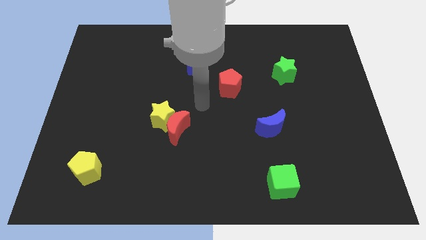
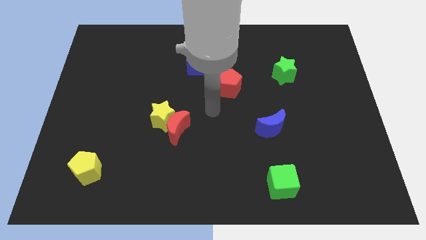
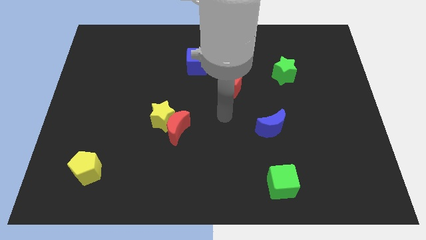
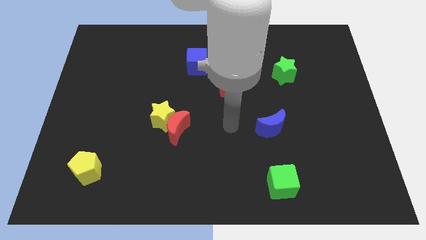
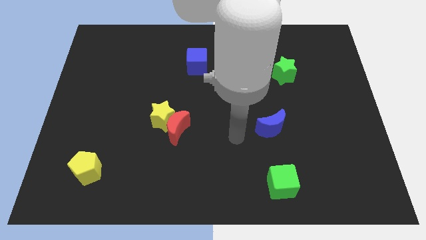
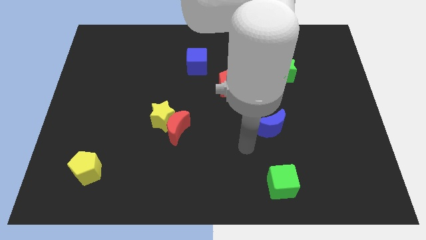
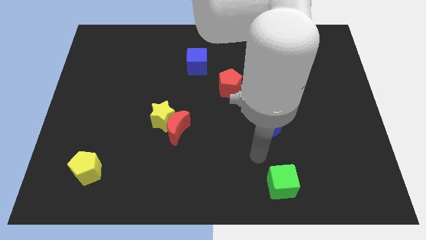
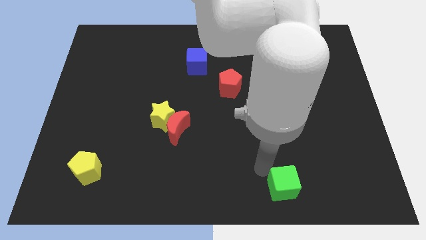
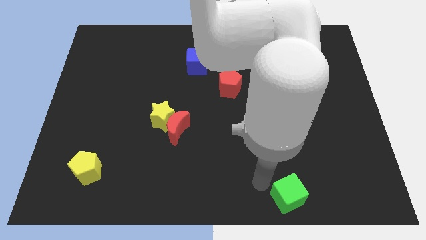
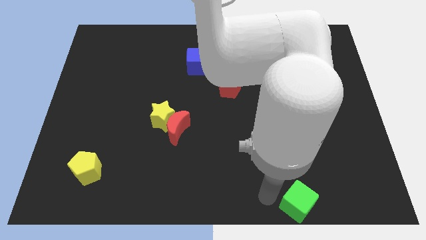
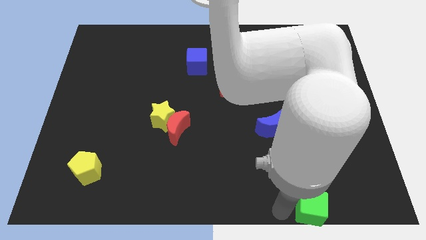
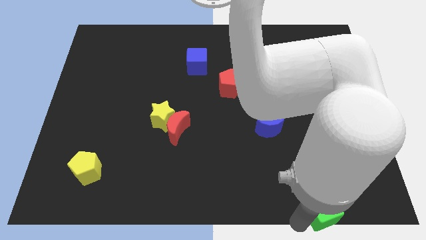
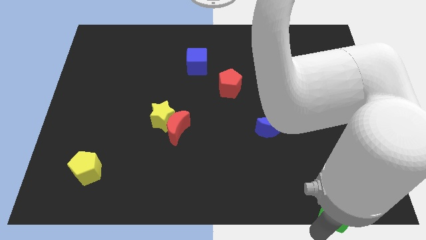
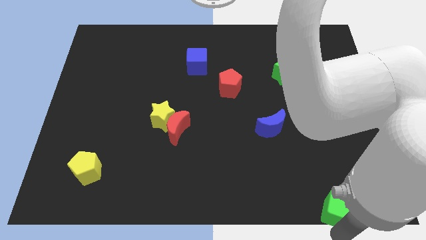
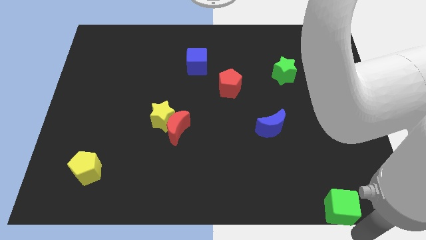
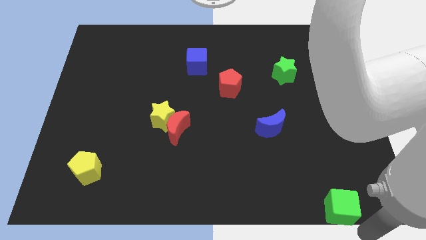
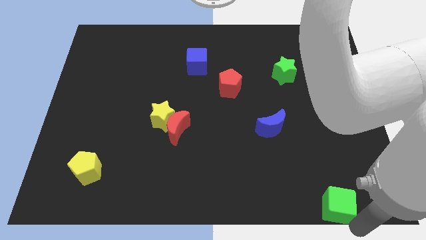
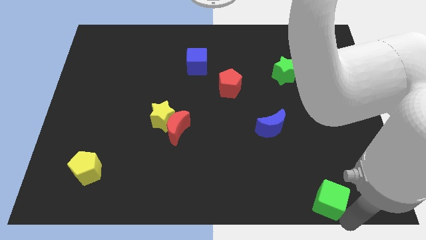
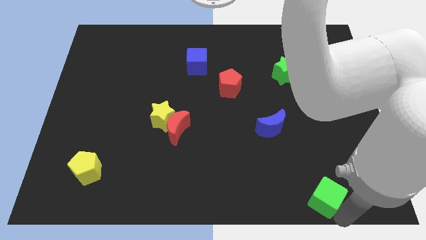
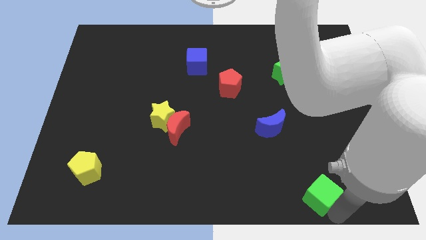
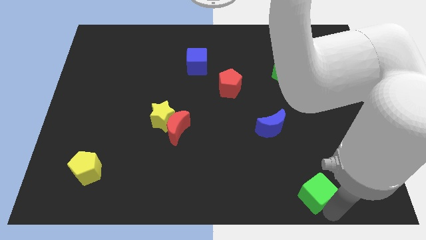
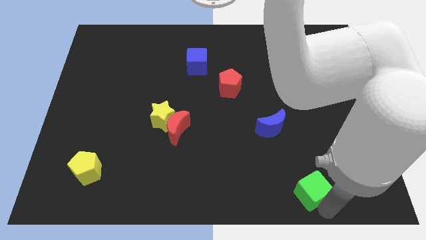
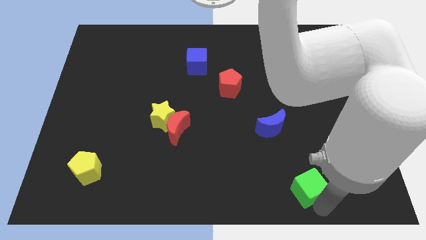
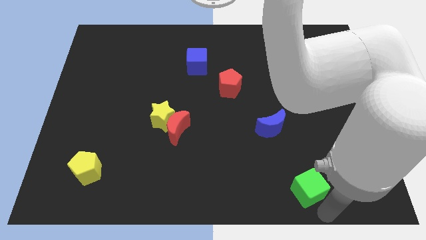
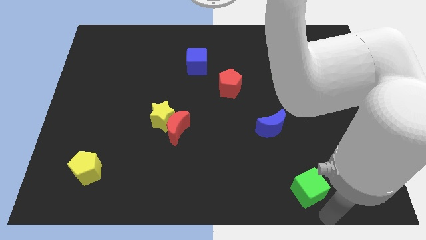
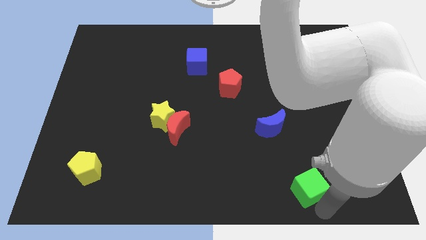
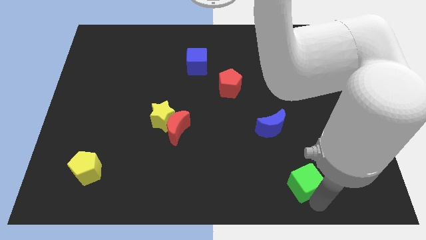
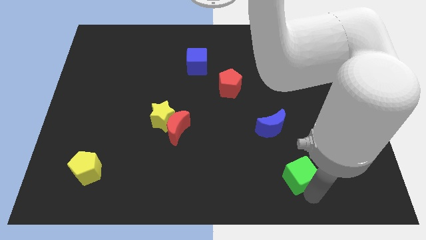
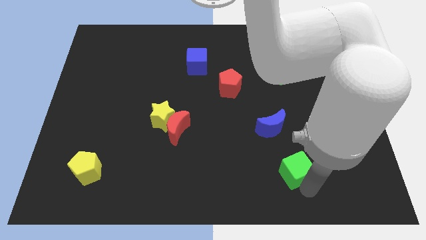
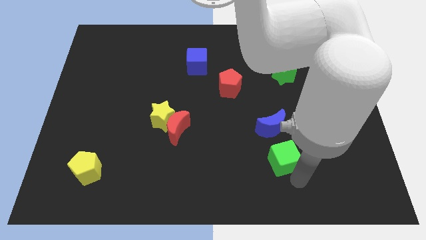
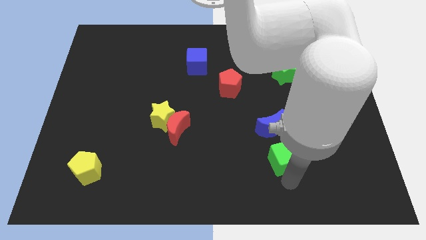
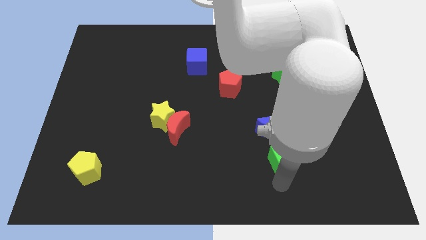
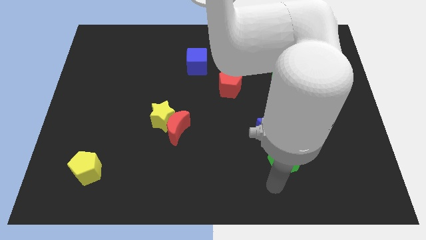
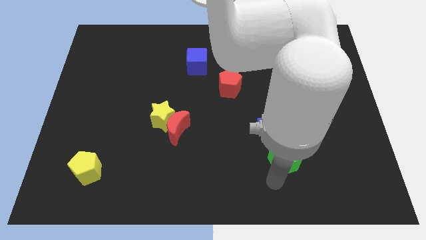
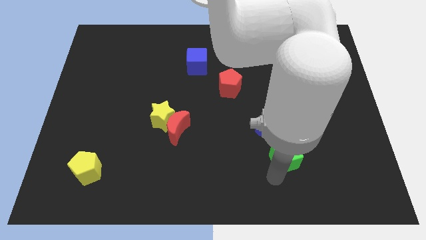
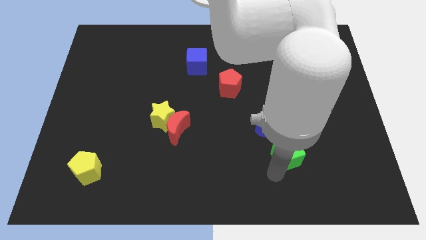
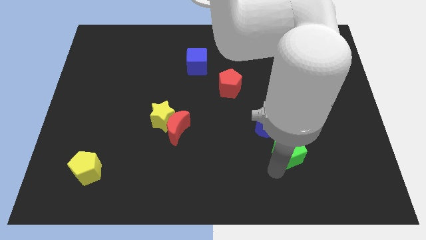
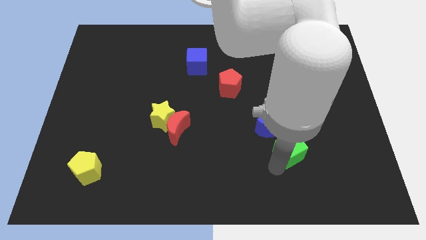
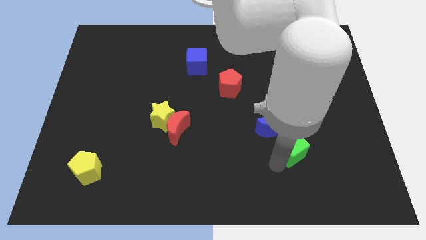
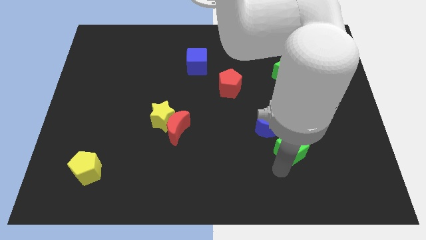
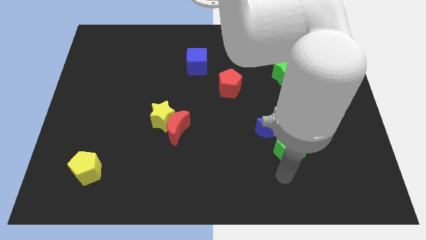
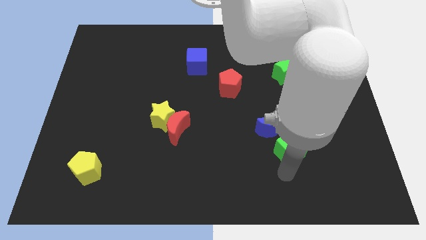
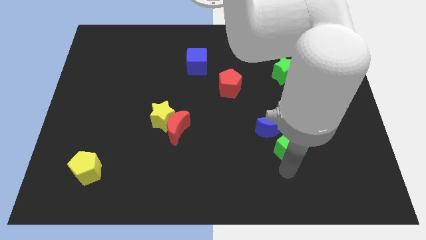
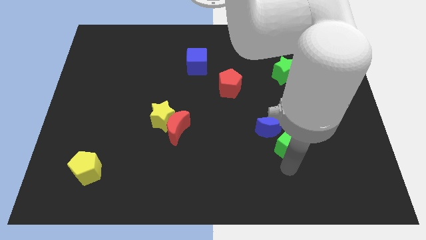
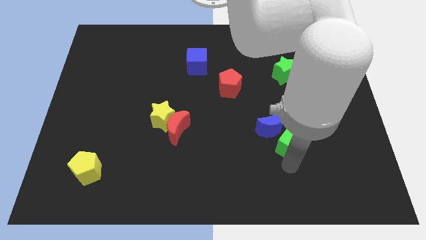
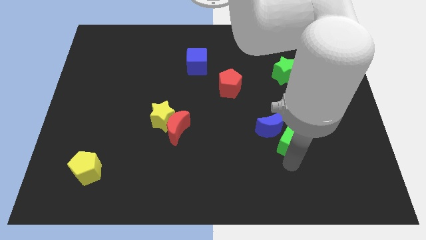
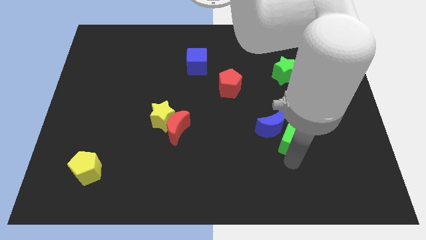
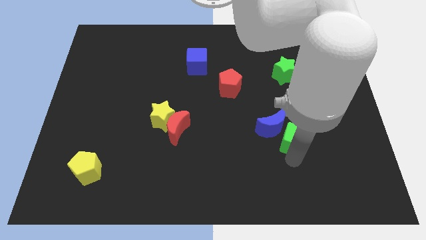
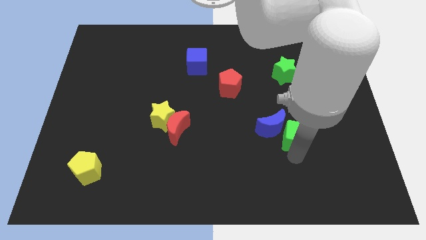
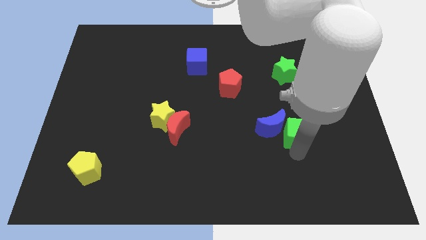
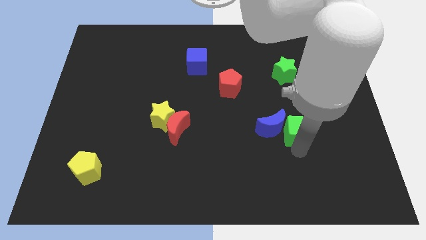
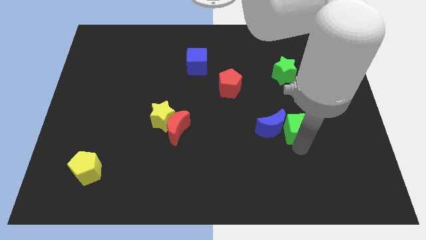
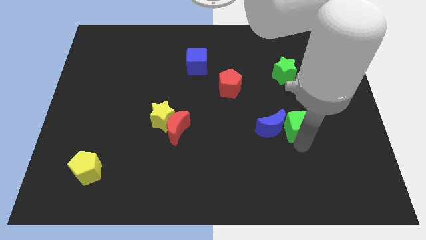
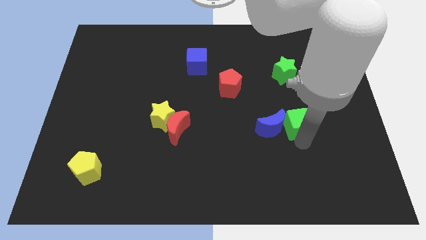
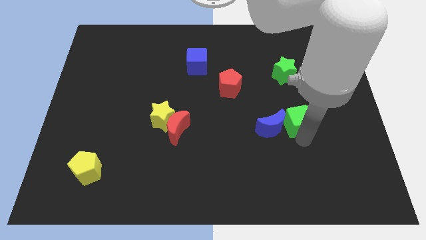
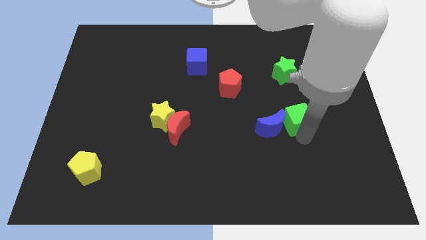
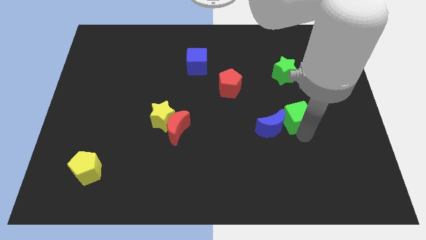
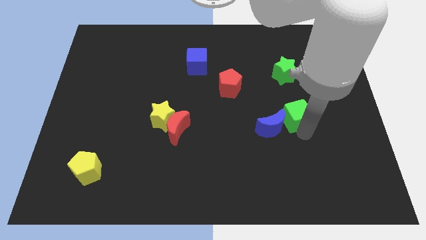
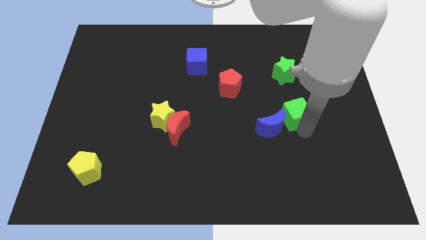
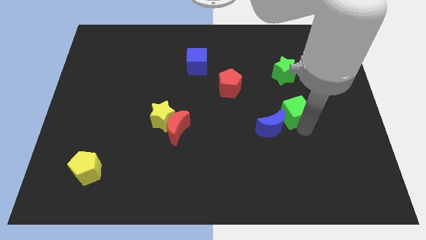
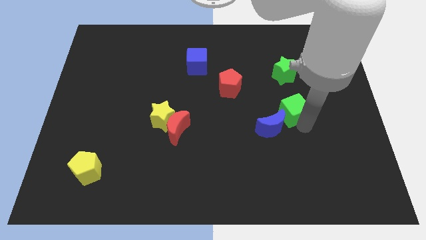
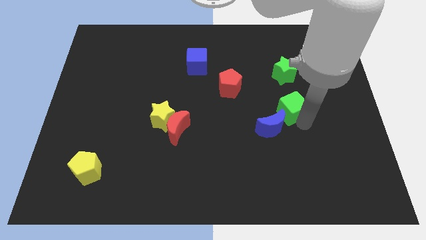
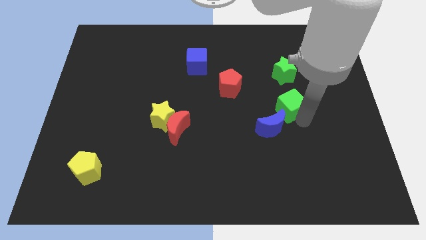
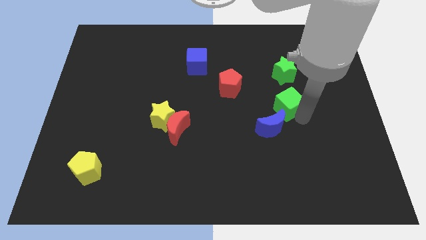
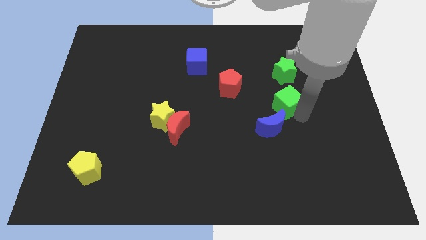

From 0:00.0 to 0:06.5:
push the green cube up

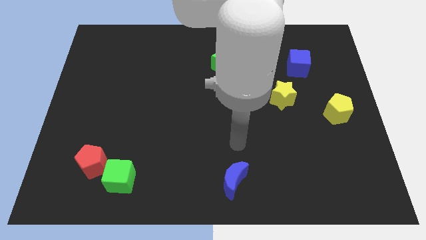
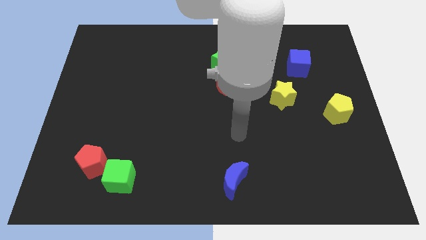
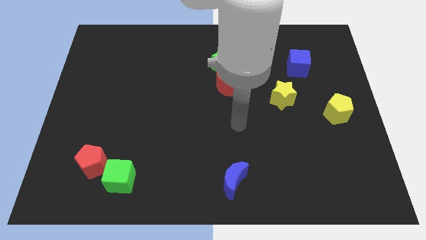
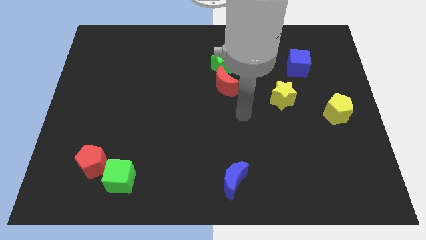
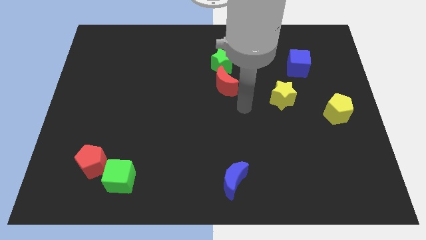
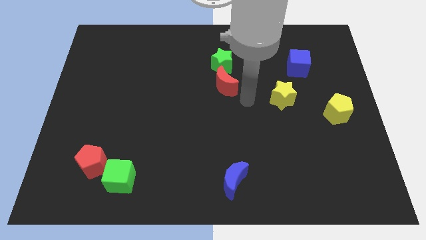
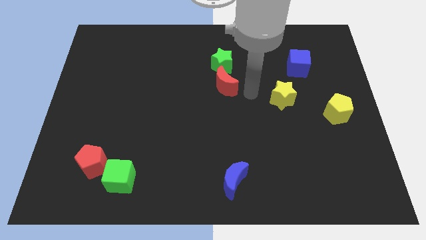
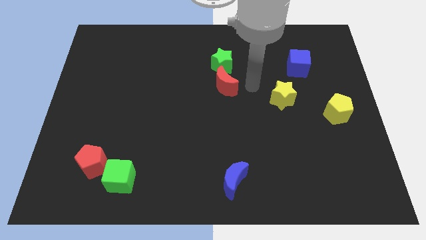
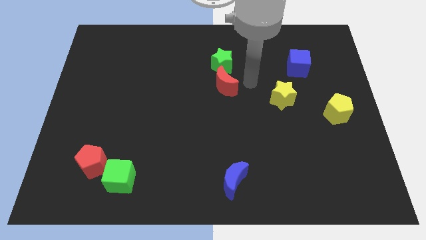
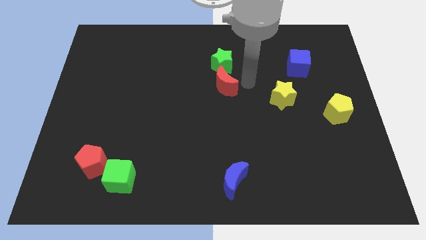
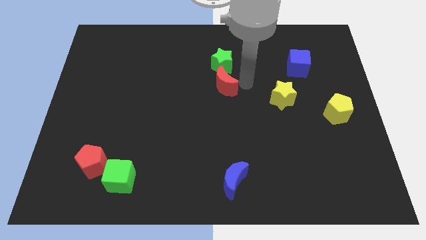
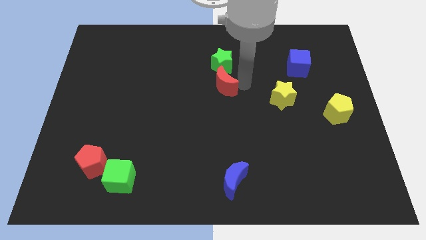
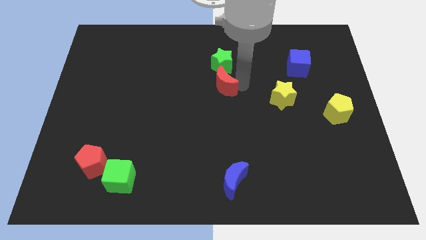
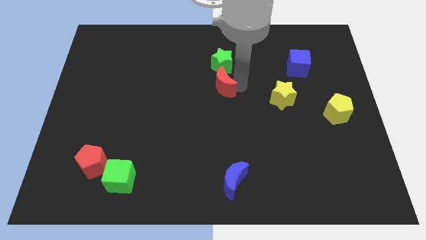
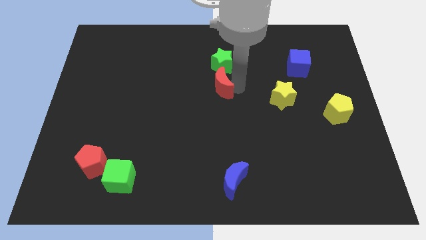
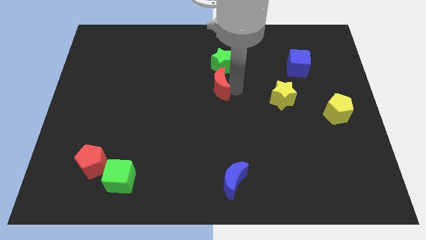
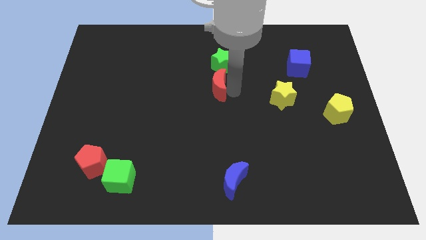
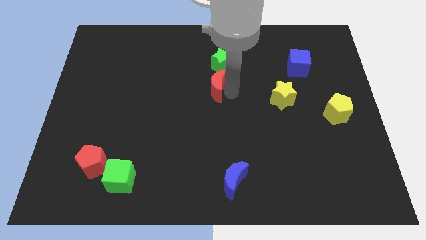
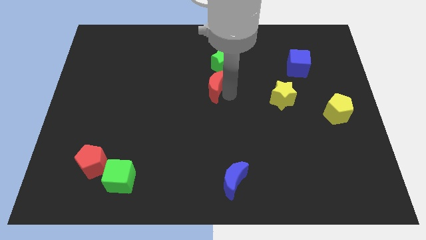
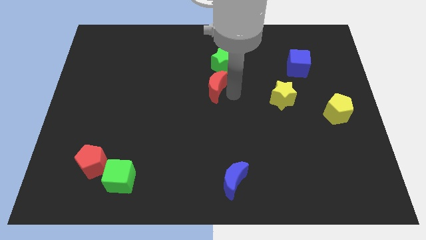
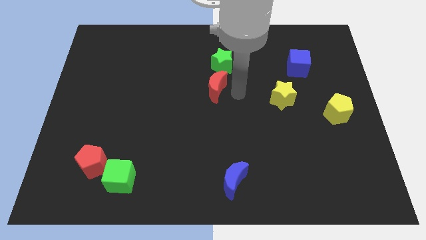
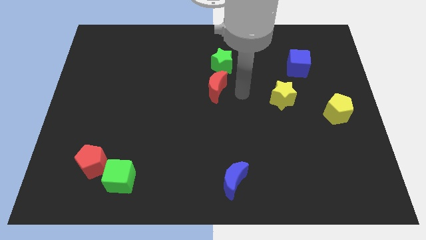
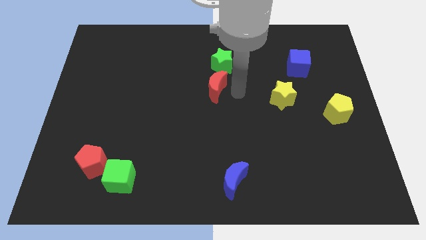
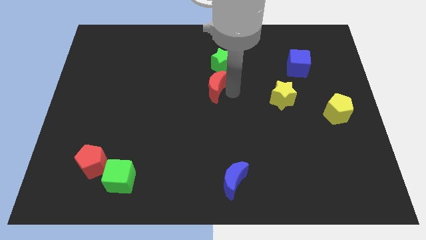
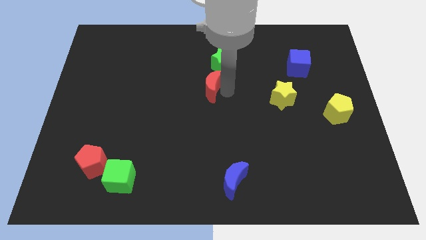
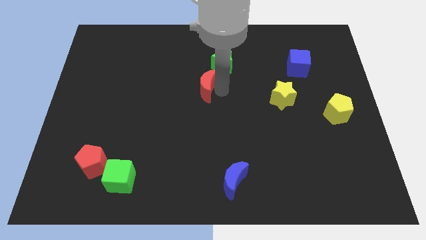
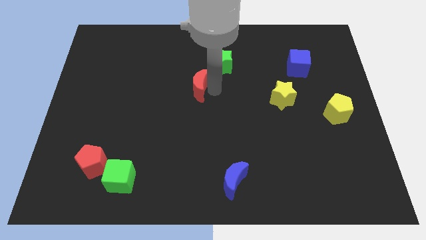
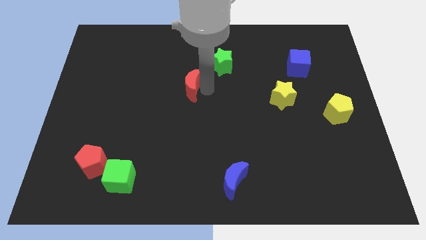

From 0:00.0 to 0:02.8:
slide the red moon left slightly
